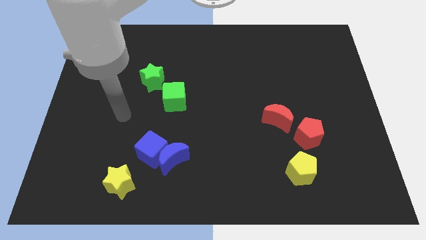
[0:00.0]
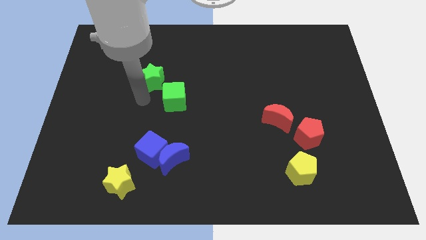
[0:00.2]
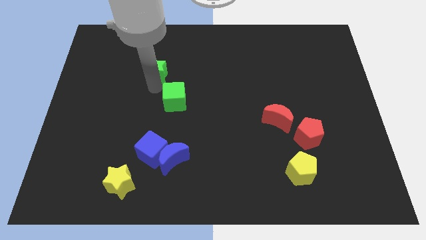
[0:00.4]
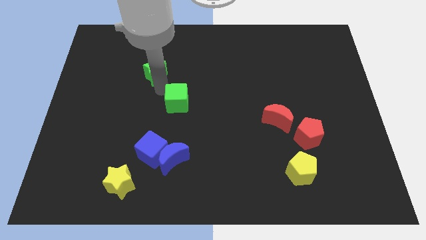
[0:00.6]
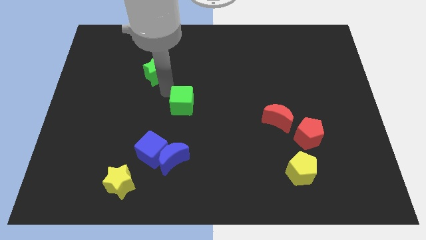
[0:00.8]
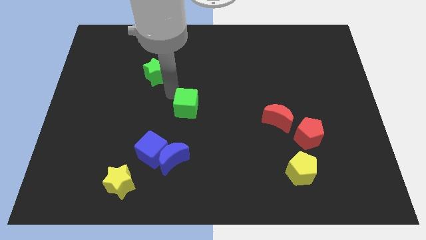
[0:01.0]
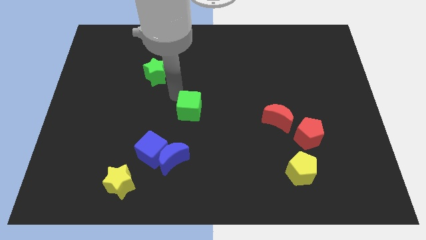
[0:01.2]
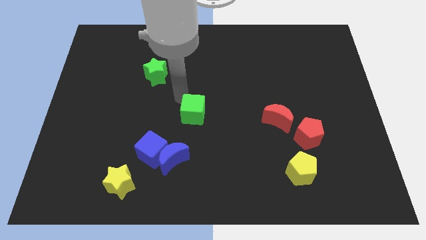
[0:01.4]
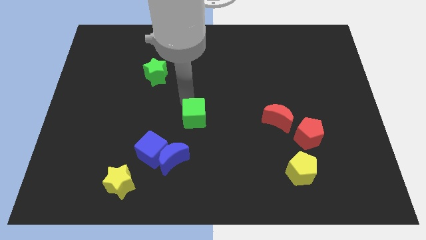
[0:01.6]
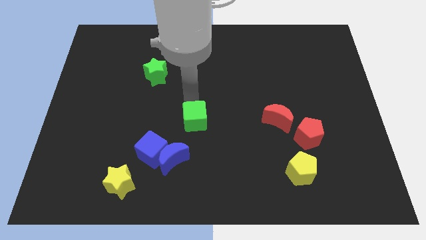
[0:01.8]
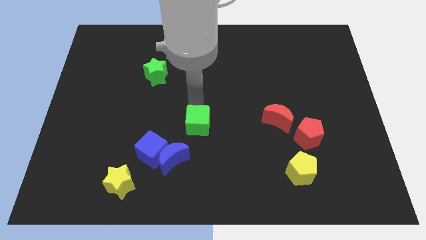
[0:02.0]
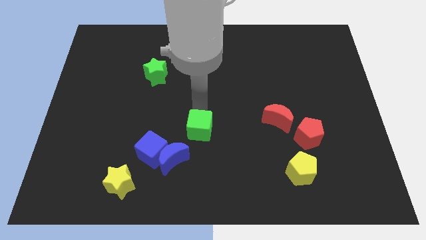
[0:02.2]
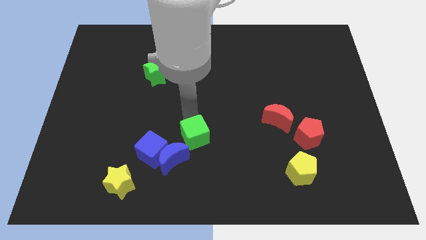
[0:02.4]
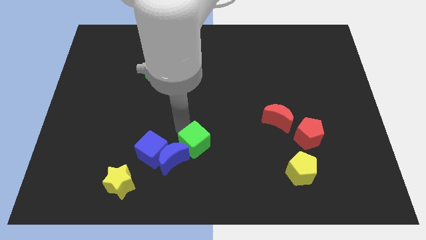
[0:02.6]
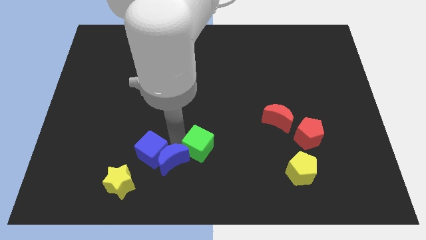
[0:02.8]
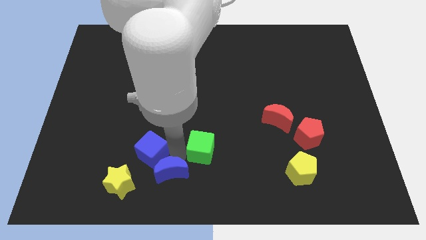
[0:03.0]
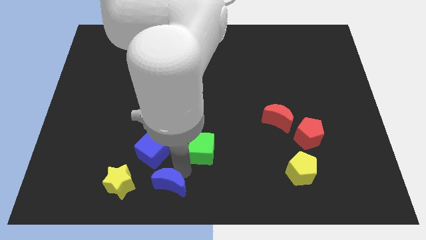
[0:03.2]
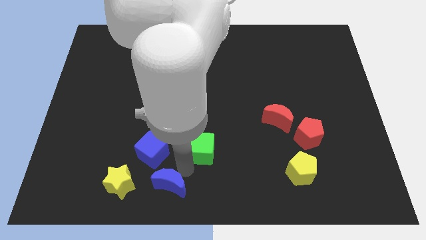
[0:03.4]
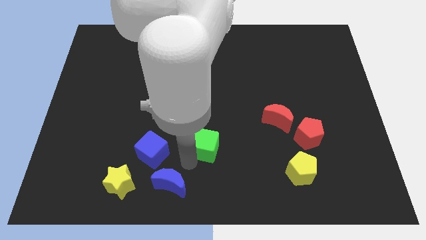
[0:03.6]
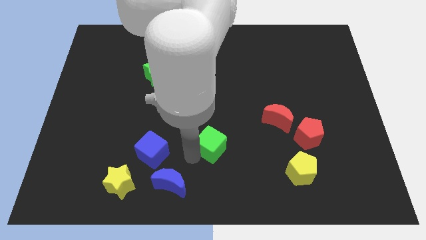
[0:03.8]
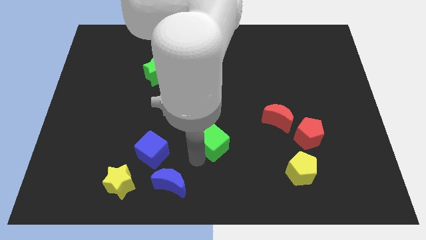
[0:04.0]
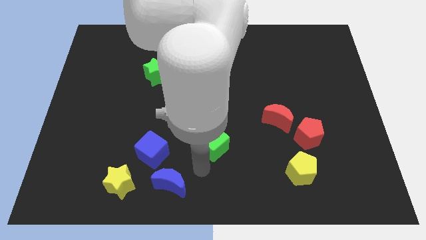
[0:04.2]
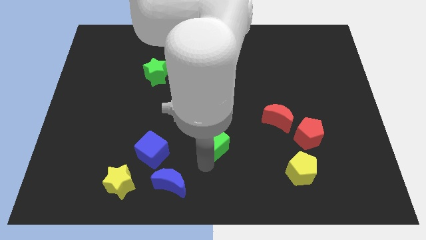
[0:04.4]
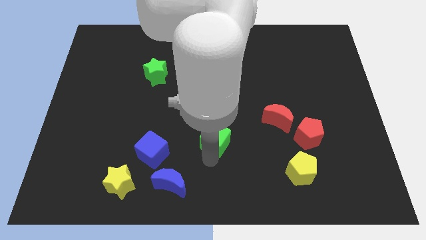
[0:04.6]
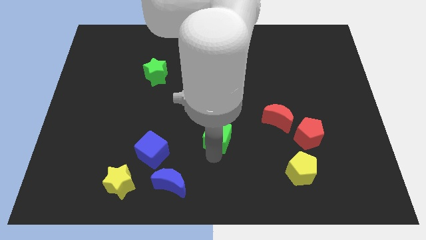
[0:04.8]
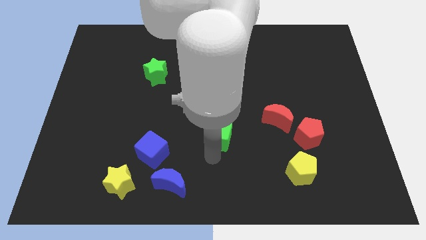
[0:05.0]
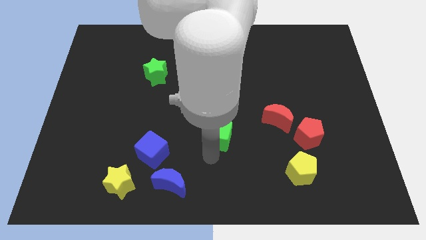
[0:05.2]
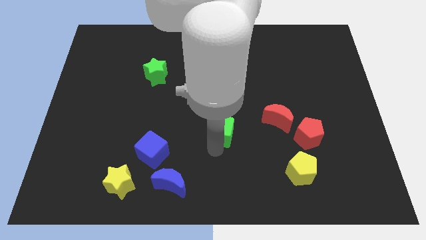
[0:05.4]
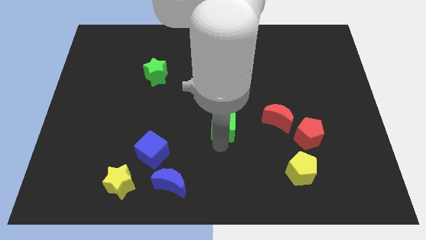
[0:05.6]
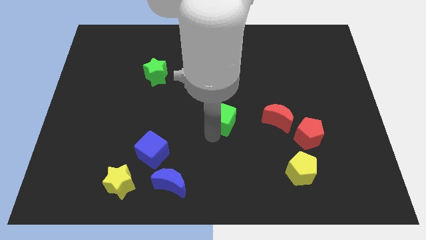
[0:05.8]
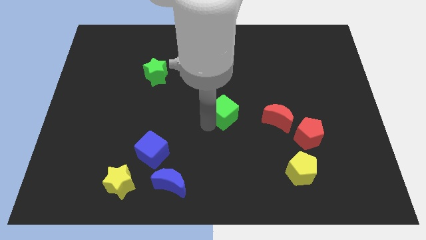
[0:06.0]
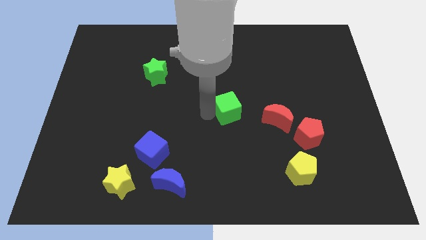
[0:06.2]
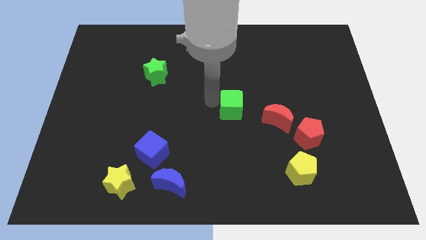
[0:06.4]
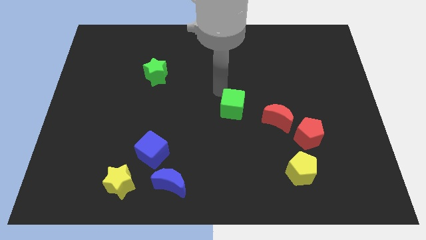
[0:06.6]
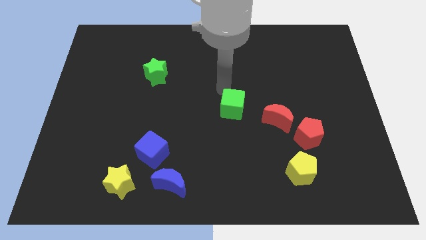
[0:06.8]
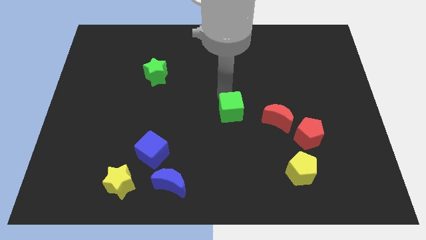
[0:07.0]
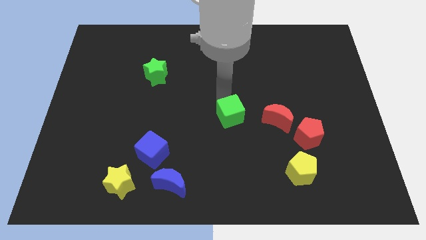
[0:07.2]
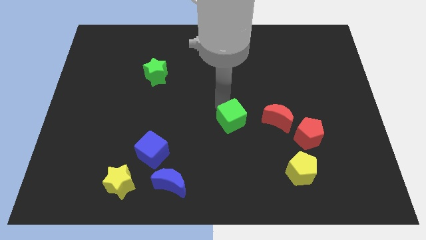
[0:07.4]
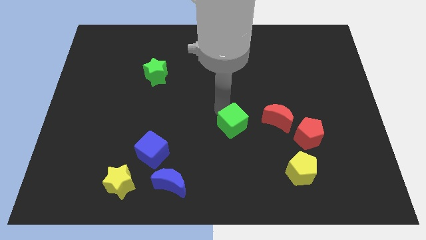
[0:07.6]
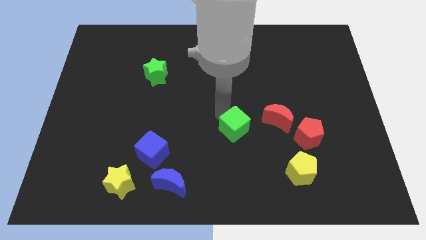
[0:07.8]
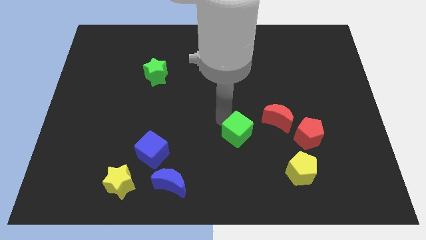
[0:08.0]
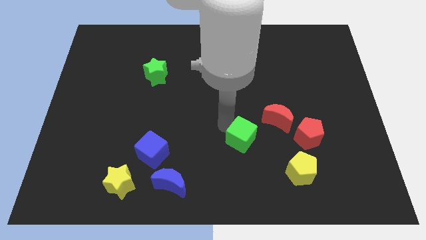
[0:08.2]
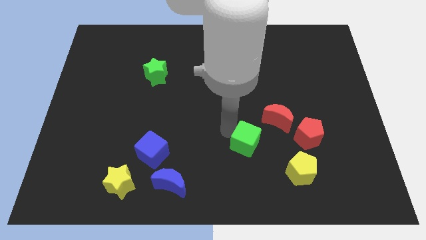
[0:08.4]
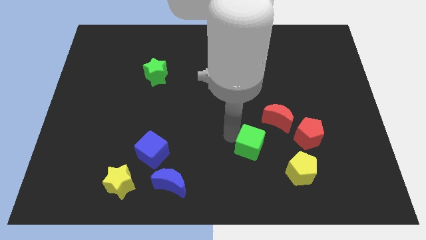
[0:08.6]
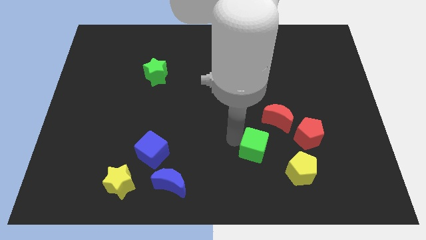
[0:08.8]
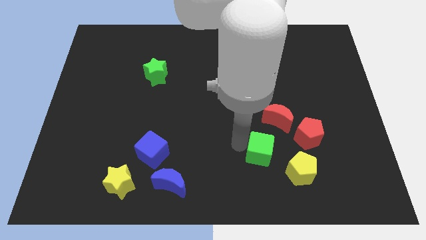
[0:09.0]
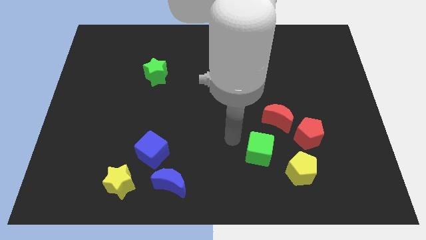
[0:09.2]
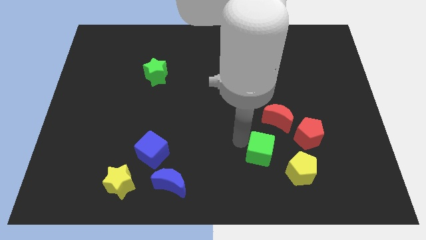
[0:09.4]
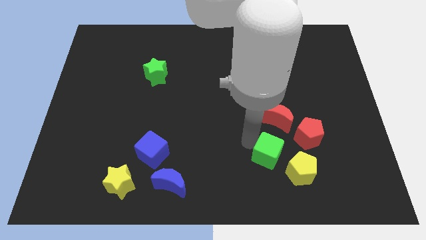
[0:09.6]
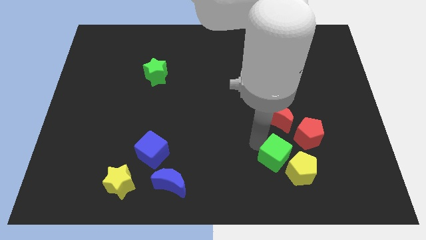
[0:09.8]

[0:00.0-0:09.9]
slide the green cube towards the yellow pentagon

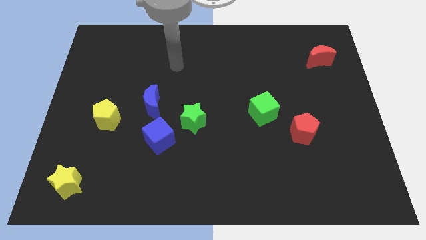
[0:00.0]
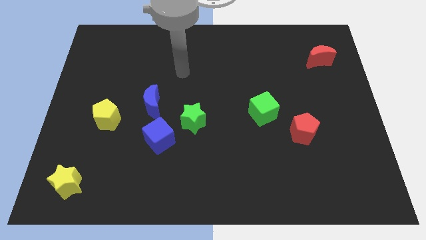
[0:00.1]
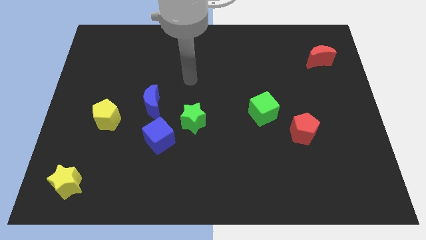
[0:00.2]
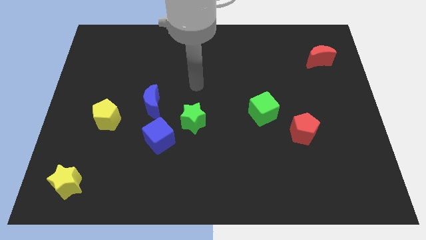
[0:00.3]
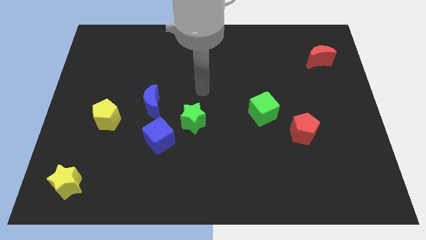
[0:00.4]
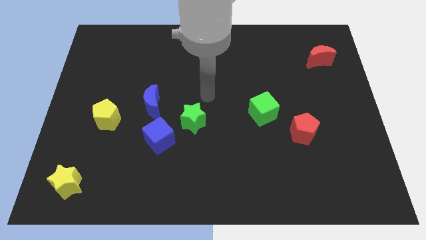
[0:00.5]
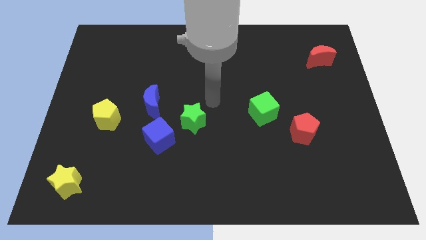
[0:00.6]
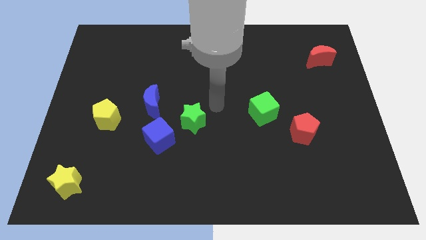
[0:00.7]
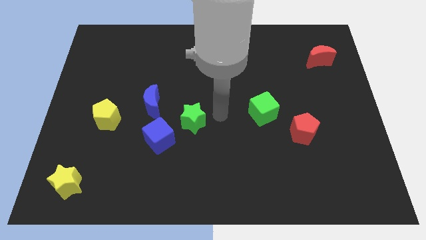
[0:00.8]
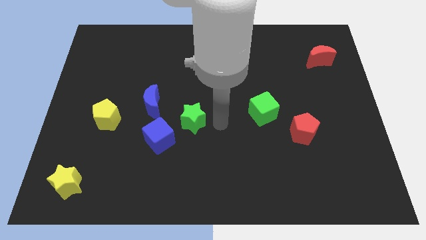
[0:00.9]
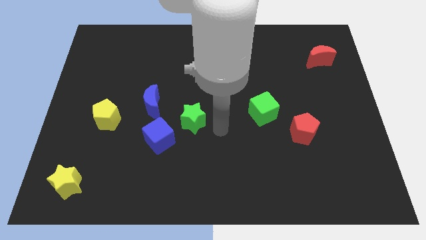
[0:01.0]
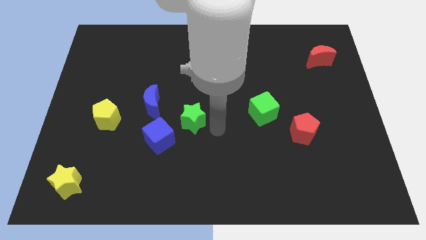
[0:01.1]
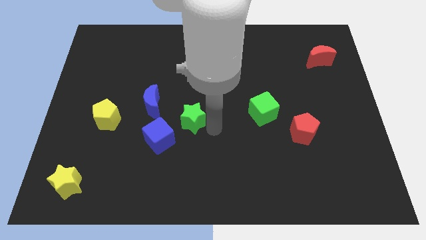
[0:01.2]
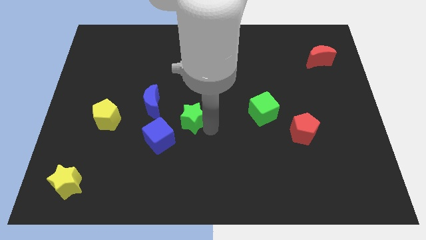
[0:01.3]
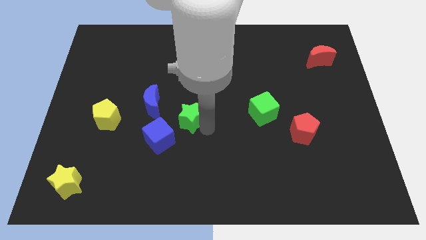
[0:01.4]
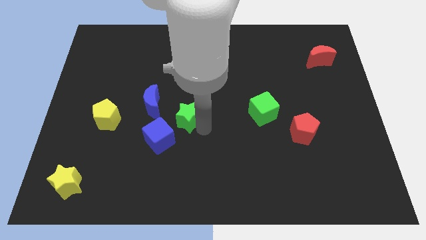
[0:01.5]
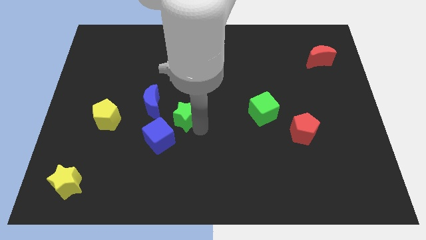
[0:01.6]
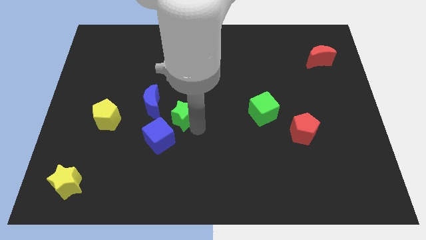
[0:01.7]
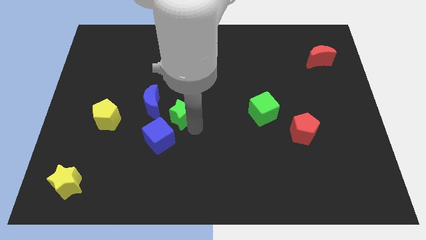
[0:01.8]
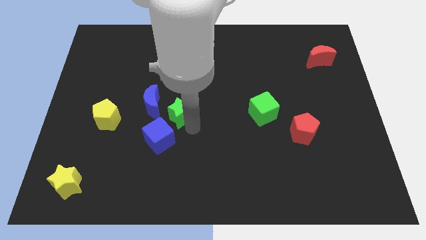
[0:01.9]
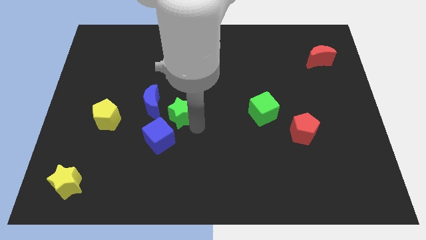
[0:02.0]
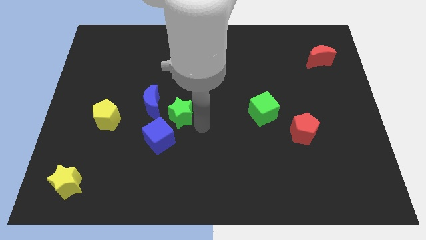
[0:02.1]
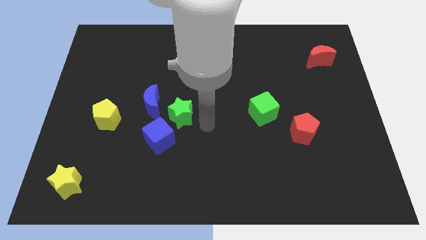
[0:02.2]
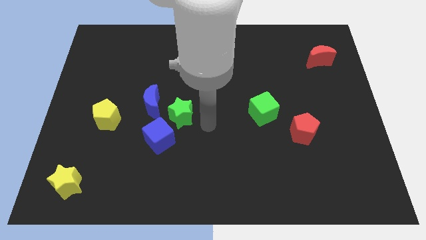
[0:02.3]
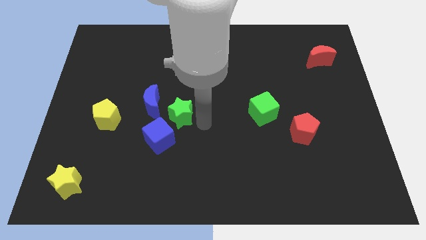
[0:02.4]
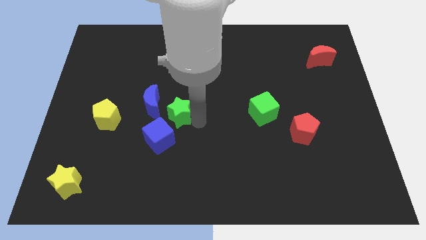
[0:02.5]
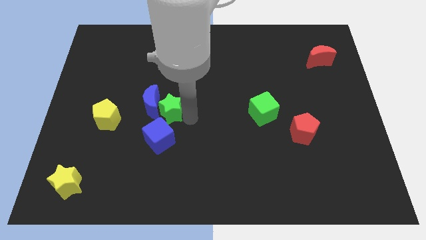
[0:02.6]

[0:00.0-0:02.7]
put the green star close to the blue moon

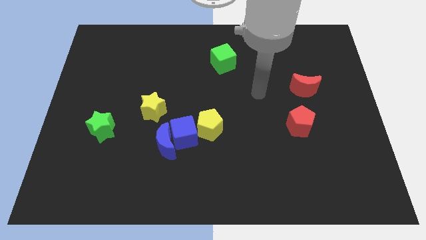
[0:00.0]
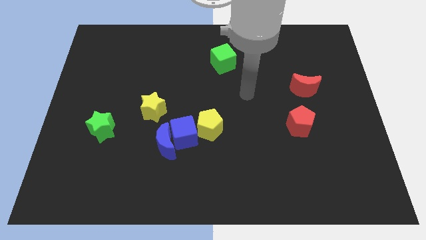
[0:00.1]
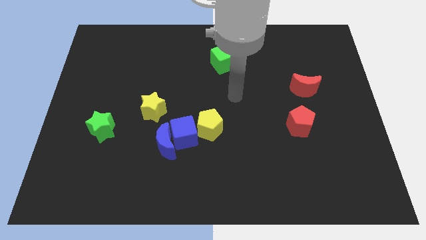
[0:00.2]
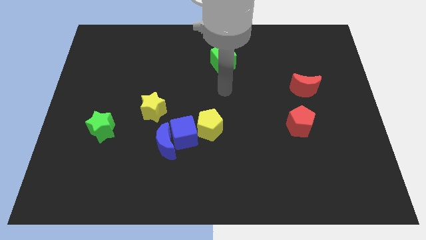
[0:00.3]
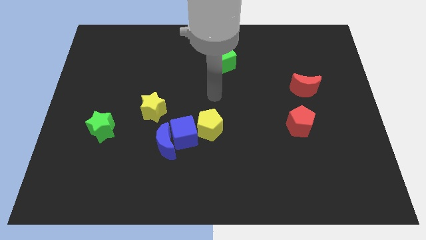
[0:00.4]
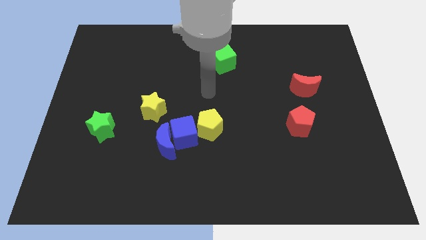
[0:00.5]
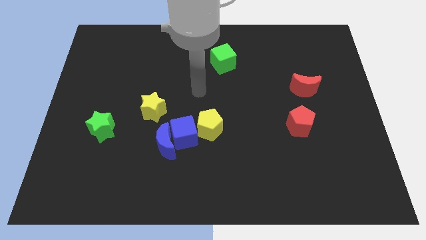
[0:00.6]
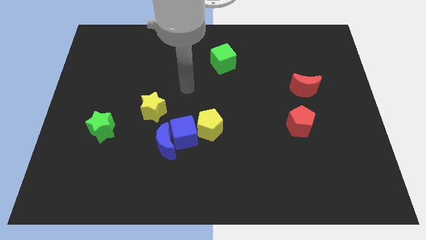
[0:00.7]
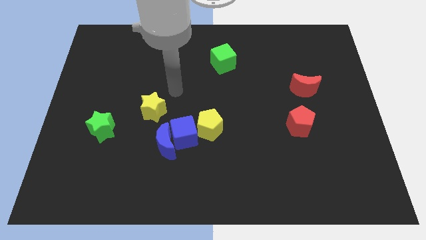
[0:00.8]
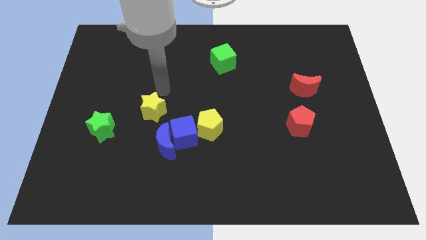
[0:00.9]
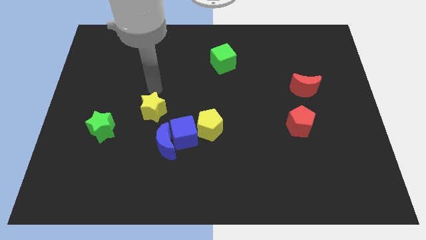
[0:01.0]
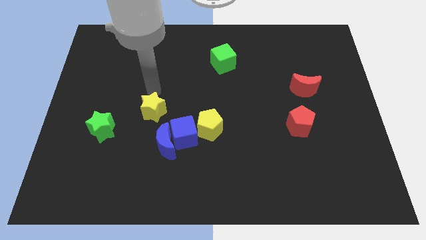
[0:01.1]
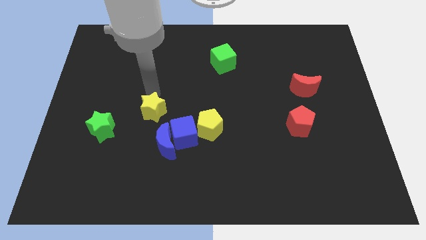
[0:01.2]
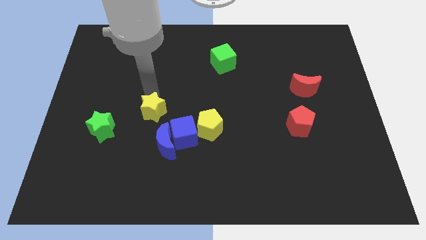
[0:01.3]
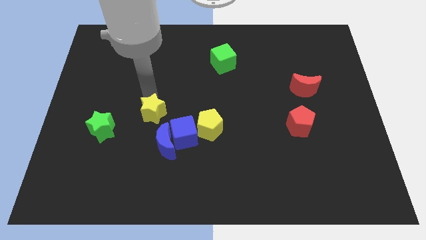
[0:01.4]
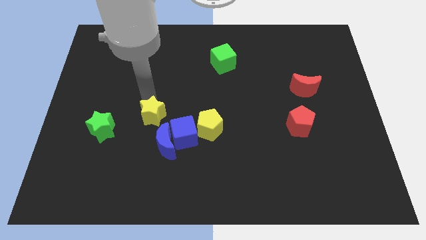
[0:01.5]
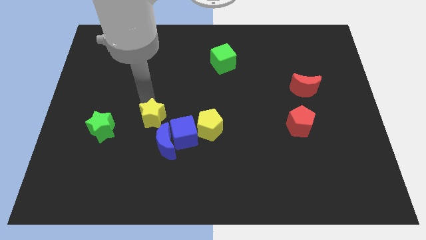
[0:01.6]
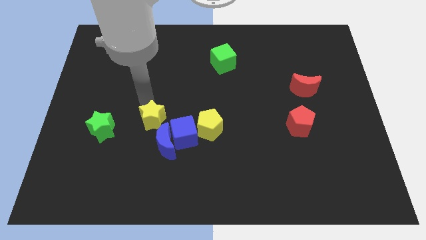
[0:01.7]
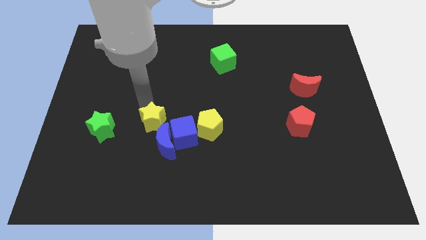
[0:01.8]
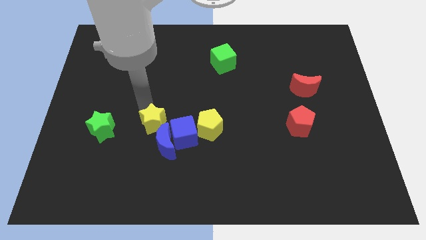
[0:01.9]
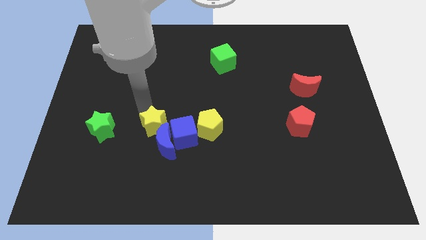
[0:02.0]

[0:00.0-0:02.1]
put the yellow star next to the blue moon
